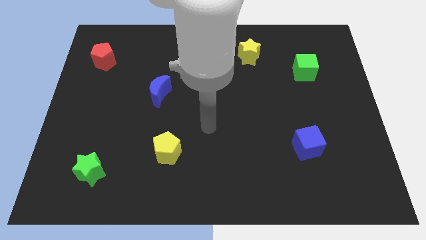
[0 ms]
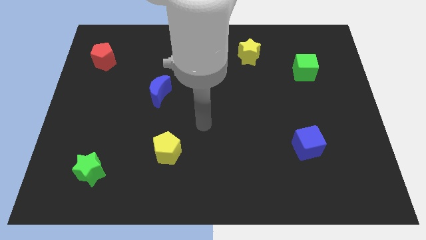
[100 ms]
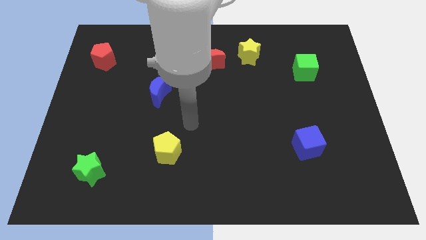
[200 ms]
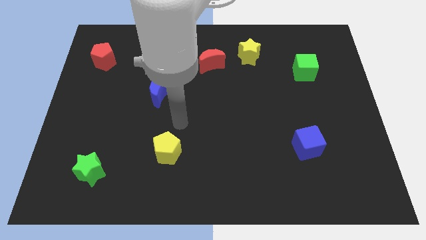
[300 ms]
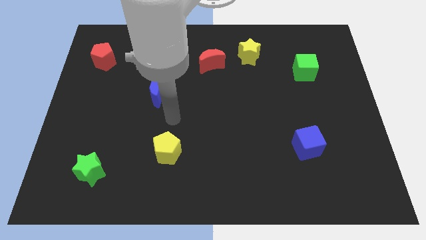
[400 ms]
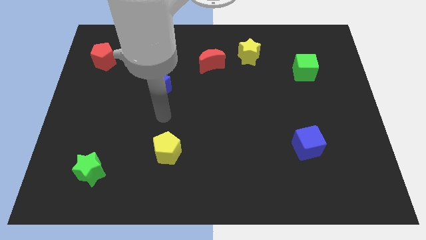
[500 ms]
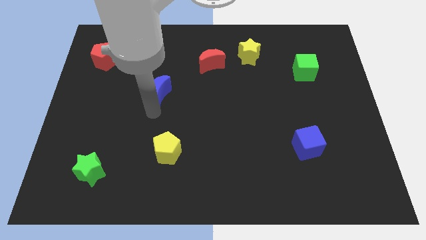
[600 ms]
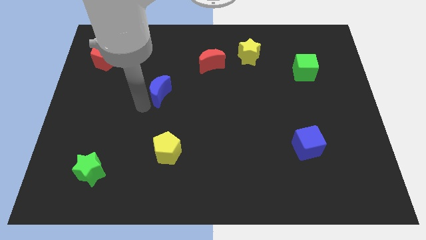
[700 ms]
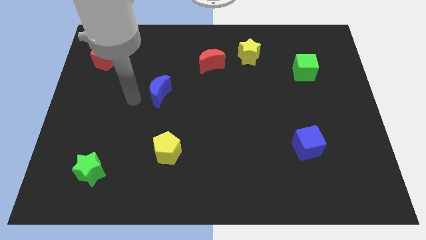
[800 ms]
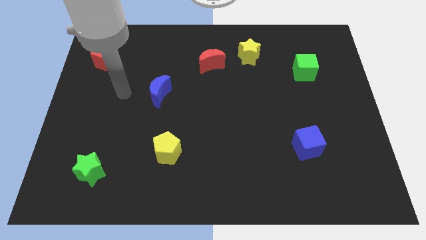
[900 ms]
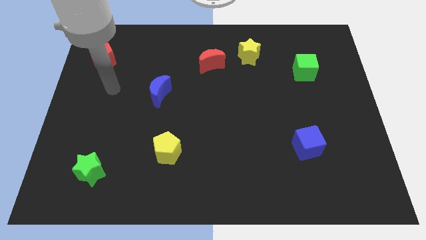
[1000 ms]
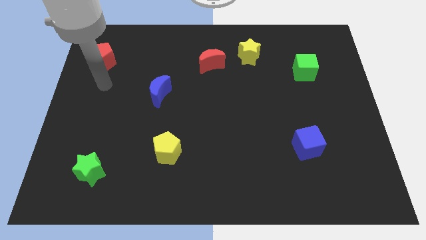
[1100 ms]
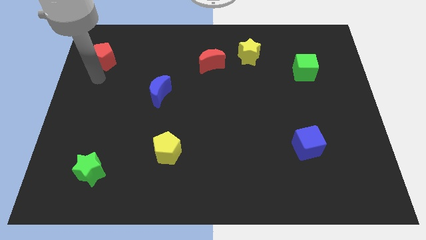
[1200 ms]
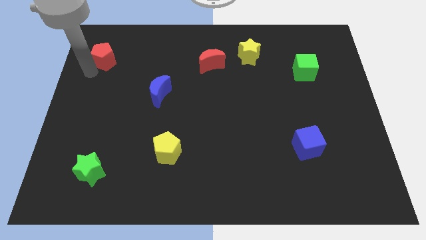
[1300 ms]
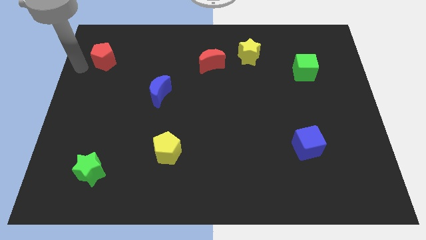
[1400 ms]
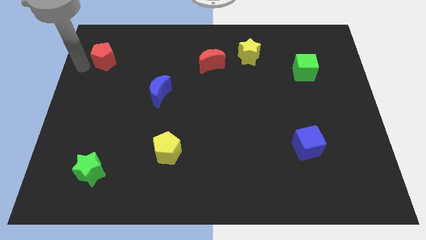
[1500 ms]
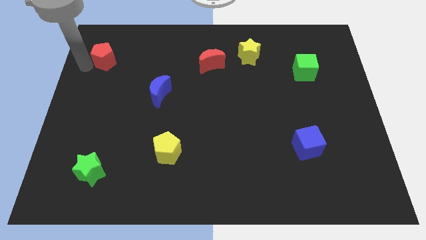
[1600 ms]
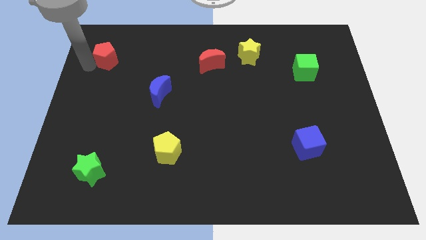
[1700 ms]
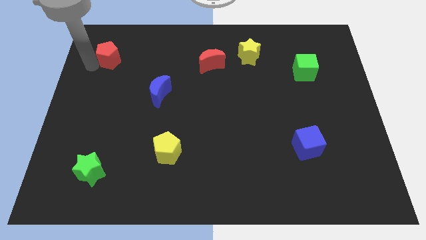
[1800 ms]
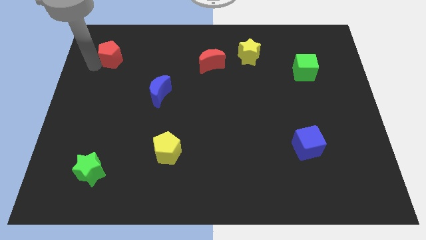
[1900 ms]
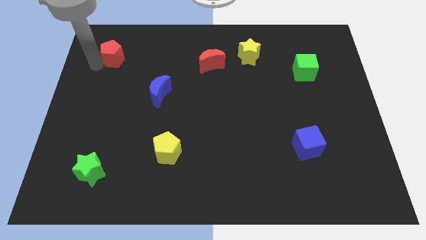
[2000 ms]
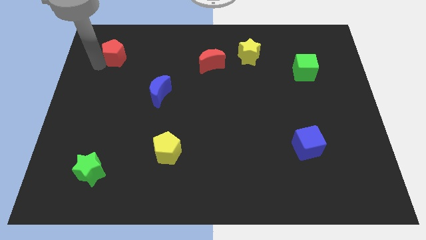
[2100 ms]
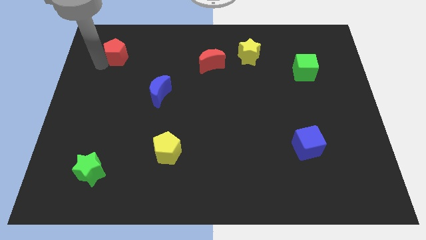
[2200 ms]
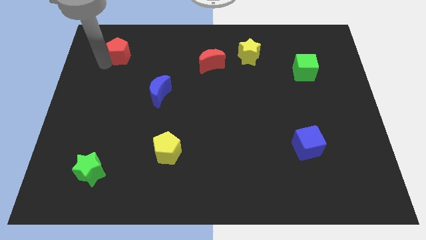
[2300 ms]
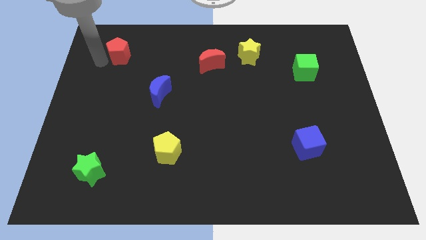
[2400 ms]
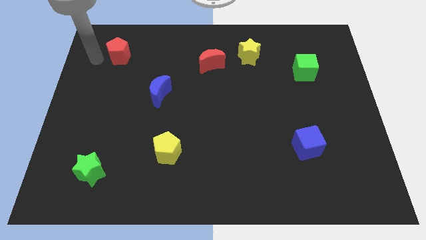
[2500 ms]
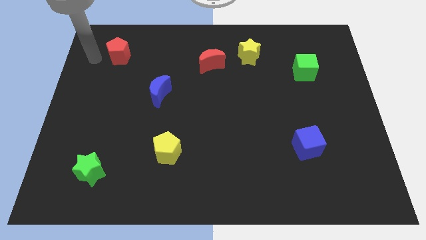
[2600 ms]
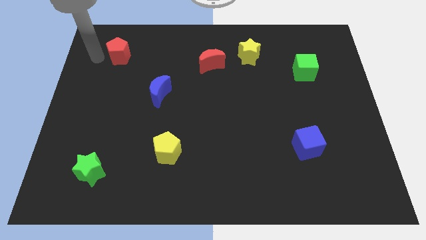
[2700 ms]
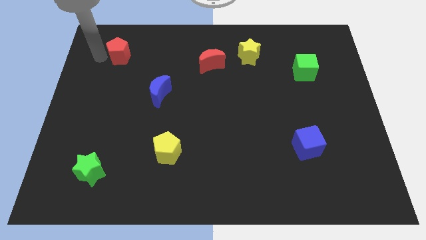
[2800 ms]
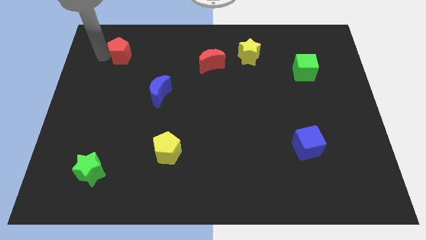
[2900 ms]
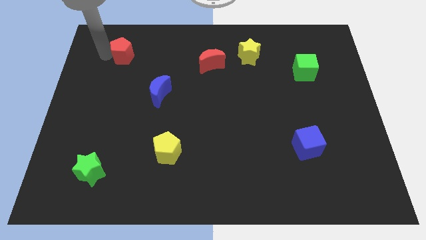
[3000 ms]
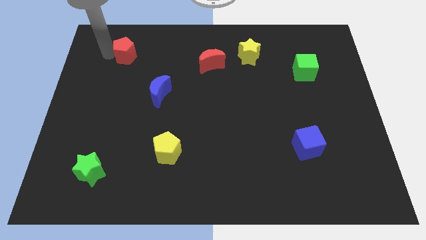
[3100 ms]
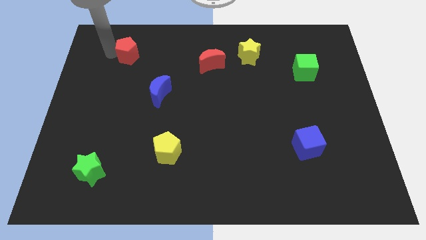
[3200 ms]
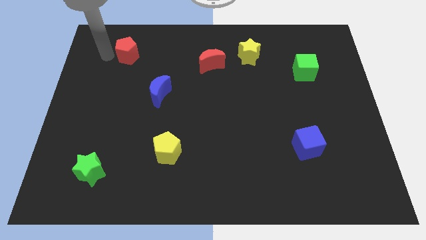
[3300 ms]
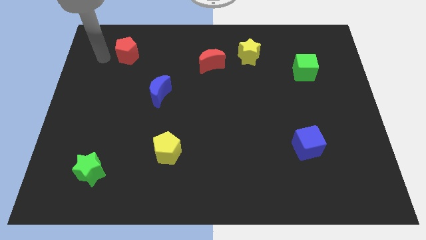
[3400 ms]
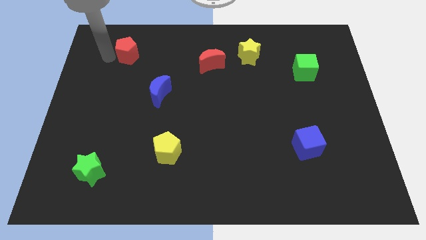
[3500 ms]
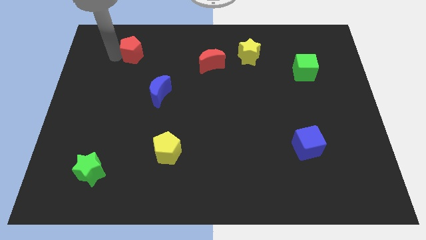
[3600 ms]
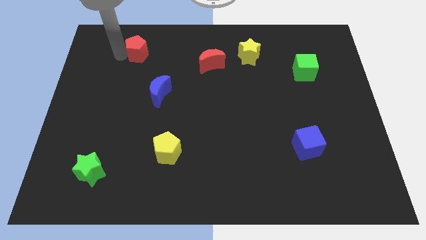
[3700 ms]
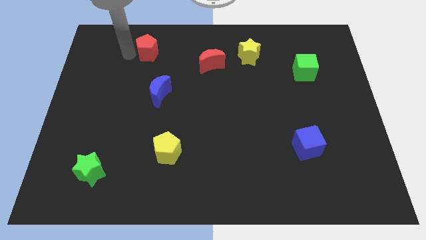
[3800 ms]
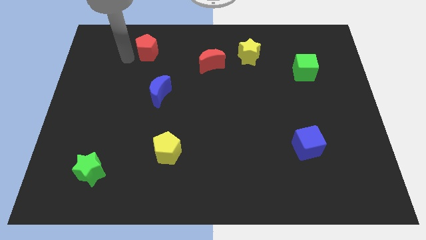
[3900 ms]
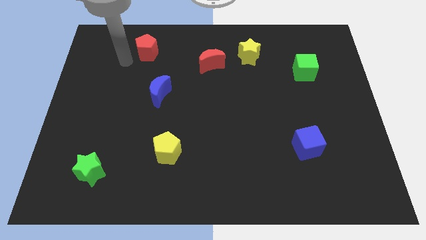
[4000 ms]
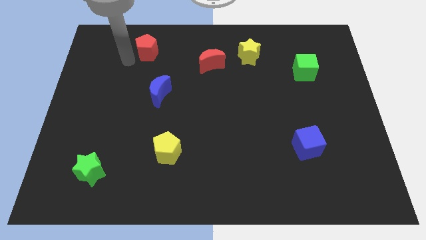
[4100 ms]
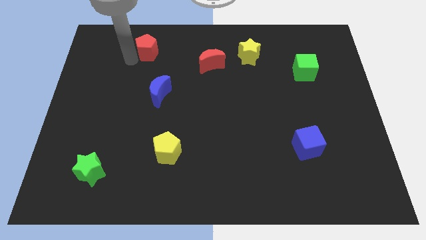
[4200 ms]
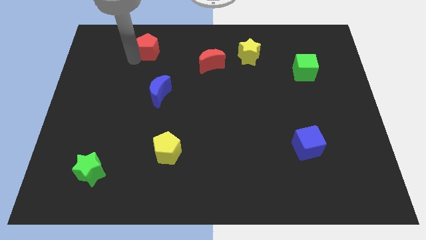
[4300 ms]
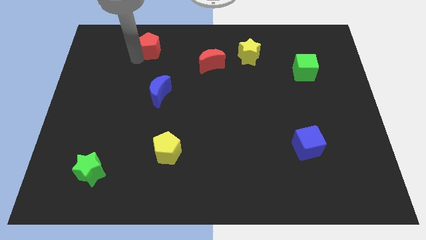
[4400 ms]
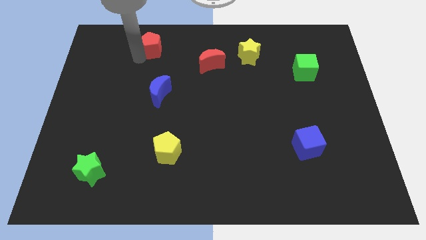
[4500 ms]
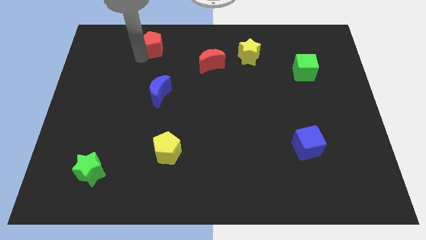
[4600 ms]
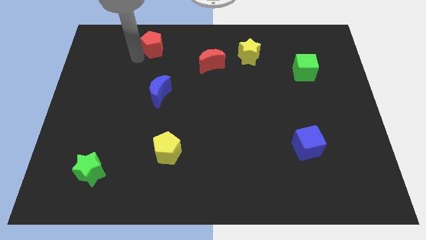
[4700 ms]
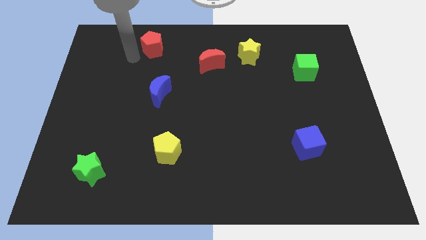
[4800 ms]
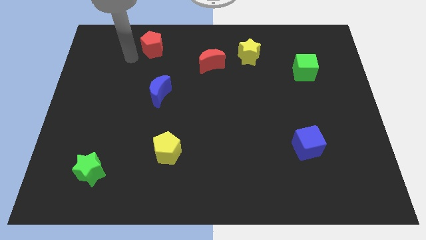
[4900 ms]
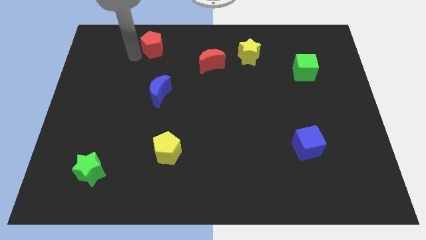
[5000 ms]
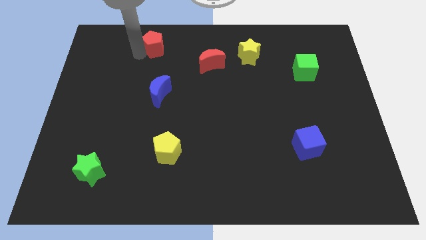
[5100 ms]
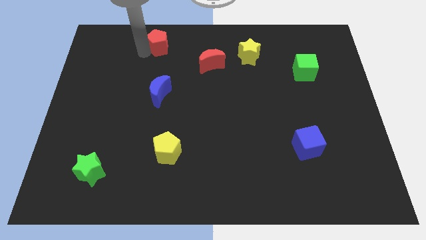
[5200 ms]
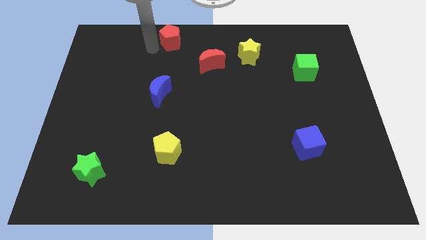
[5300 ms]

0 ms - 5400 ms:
put the red pentagon to the towards your base

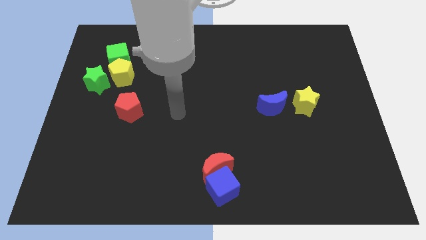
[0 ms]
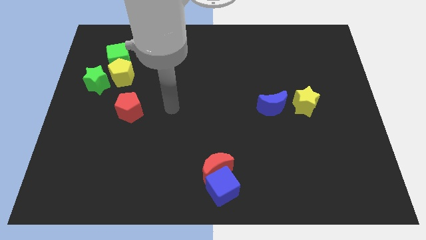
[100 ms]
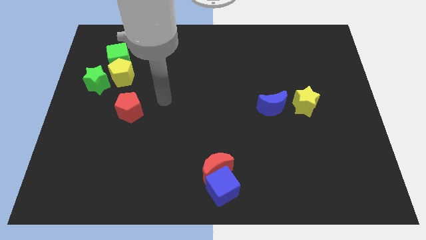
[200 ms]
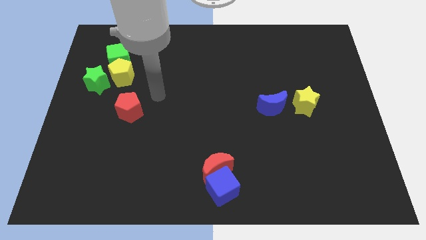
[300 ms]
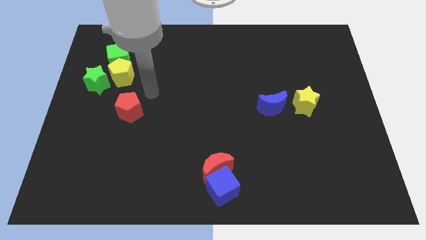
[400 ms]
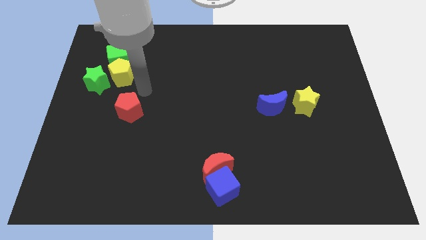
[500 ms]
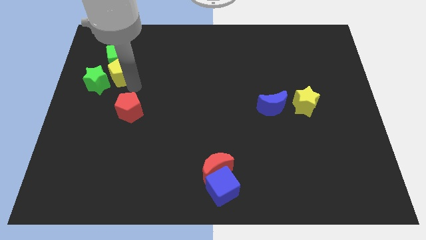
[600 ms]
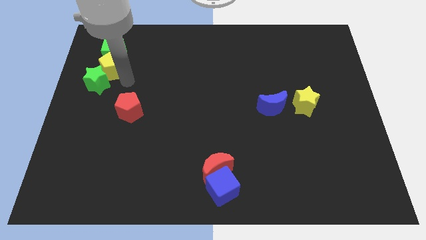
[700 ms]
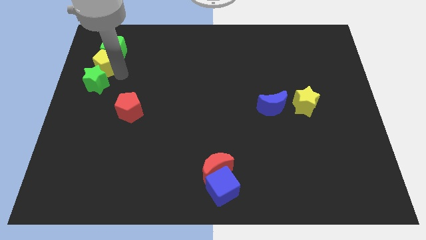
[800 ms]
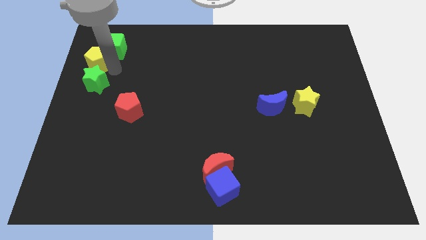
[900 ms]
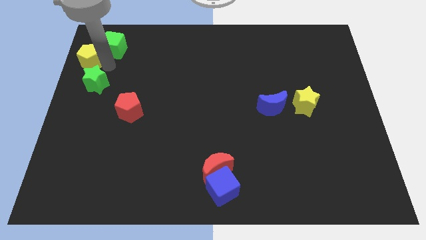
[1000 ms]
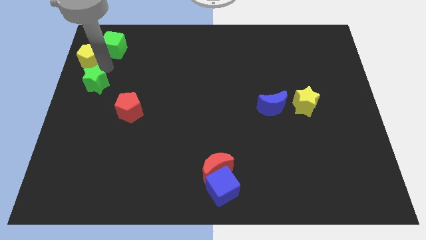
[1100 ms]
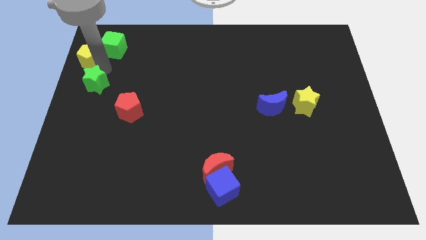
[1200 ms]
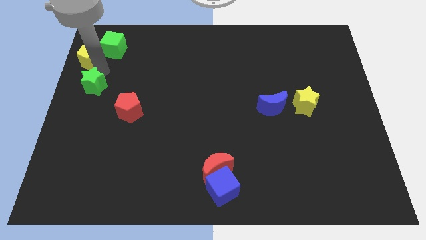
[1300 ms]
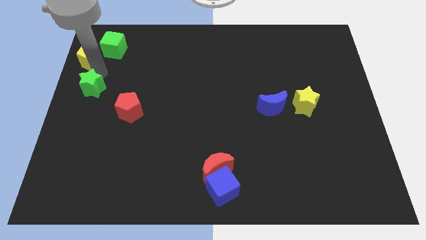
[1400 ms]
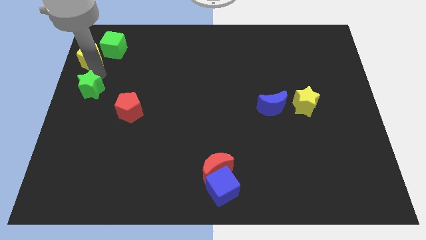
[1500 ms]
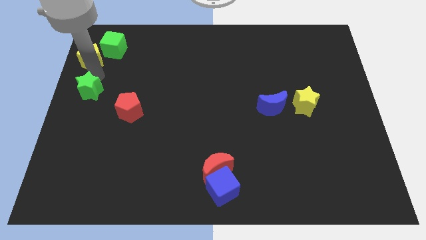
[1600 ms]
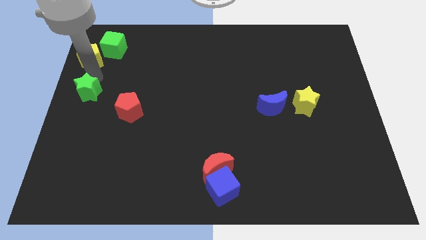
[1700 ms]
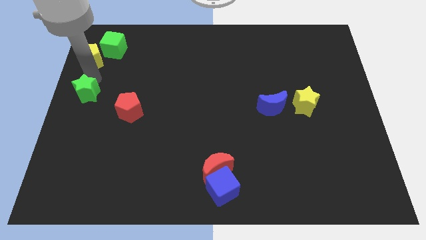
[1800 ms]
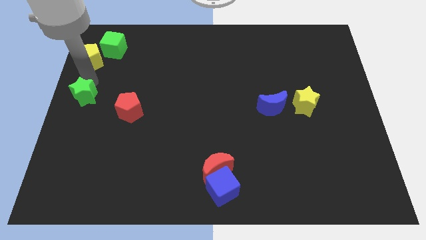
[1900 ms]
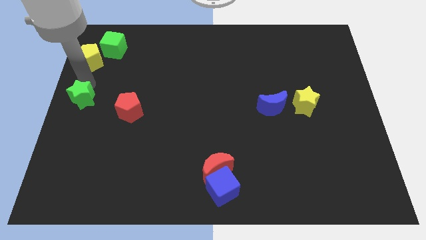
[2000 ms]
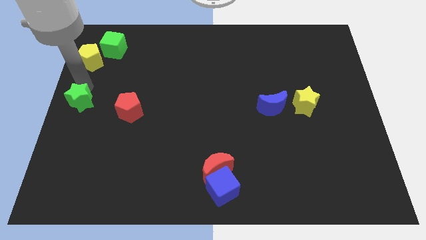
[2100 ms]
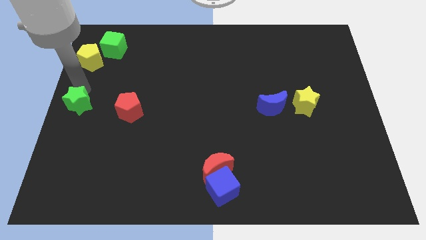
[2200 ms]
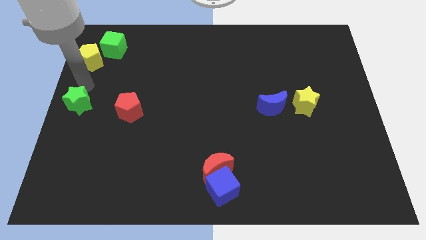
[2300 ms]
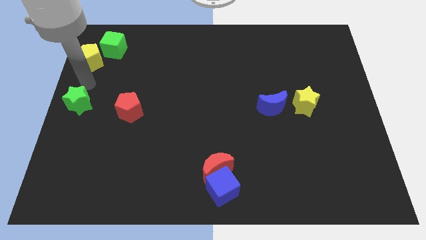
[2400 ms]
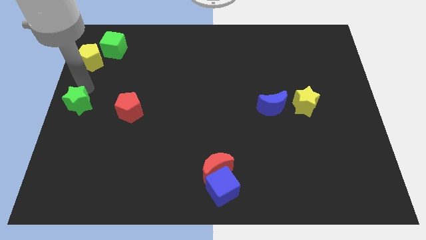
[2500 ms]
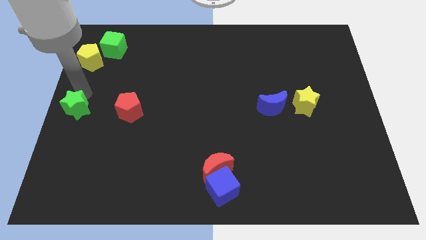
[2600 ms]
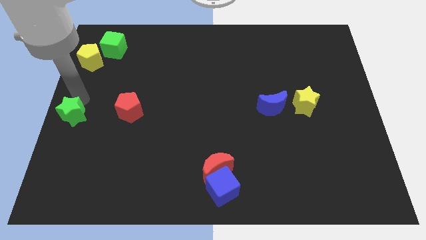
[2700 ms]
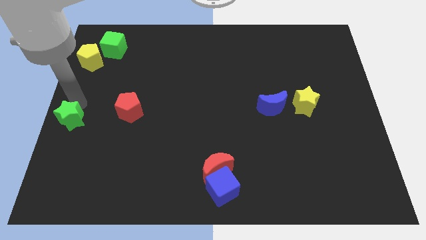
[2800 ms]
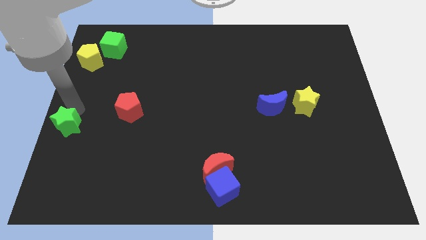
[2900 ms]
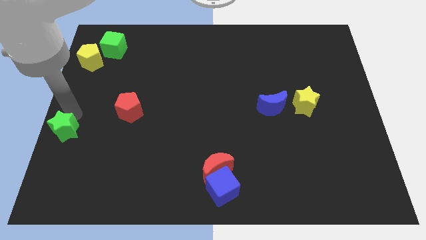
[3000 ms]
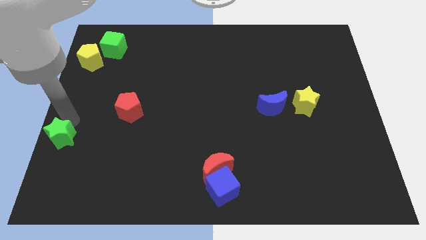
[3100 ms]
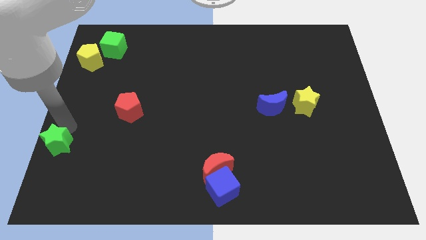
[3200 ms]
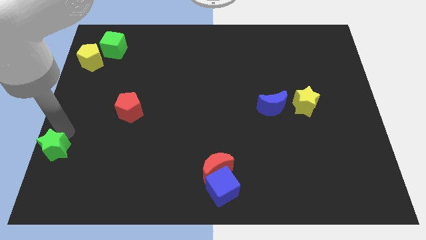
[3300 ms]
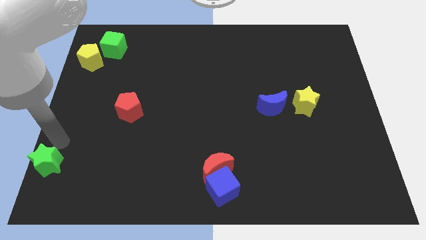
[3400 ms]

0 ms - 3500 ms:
push the green star to the lower left corner
